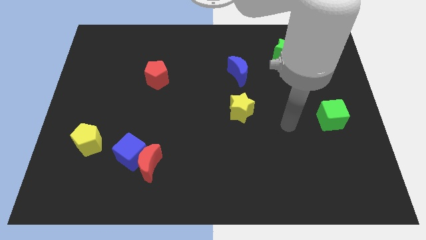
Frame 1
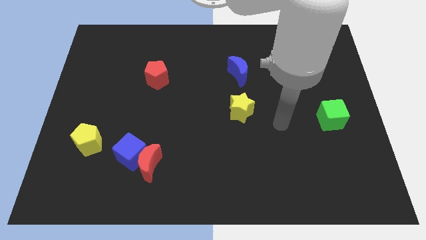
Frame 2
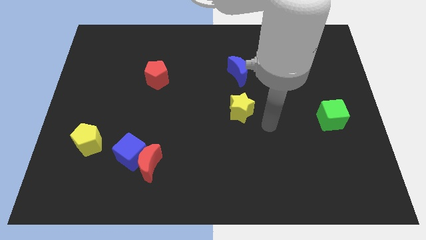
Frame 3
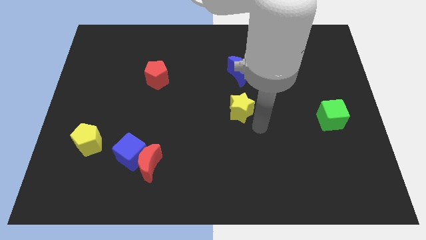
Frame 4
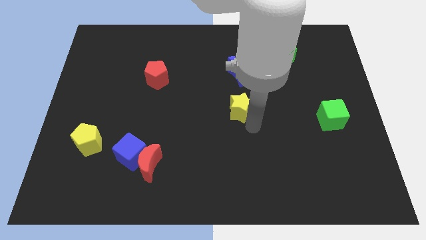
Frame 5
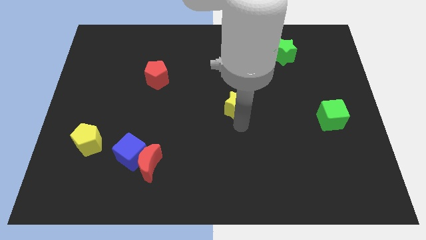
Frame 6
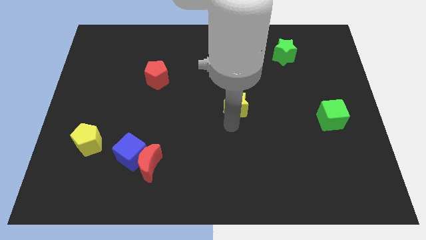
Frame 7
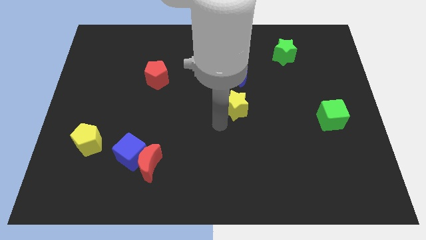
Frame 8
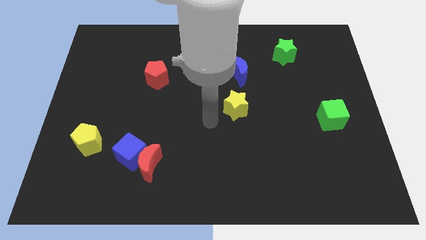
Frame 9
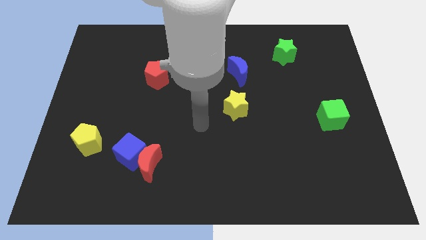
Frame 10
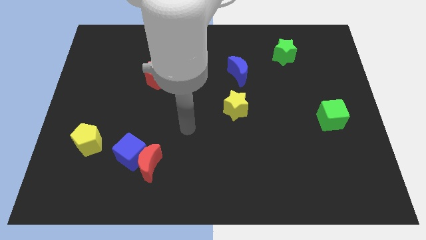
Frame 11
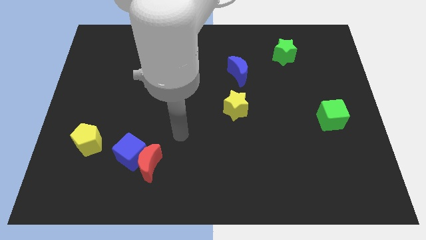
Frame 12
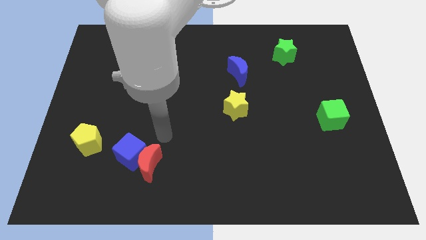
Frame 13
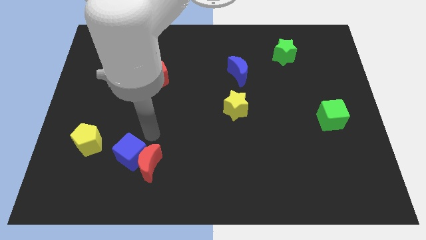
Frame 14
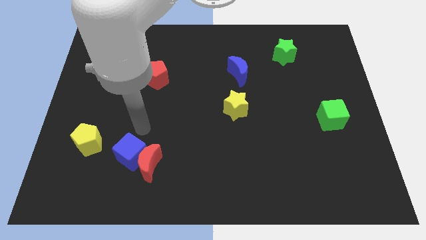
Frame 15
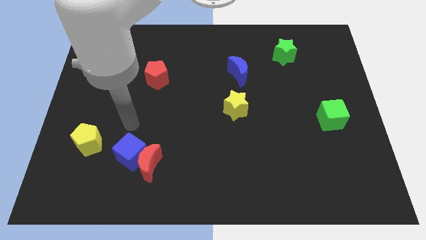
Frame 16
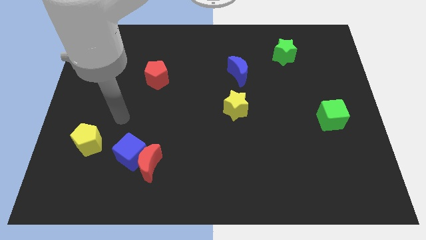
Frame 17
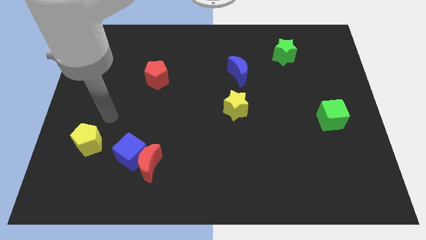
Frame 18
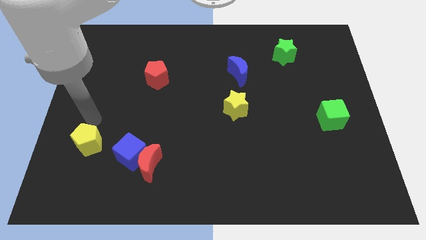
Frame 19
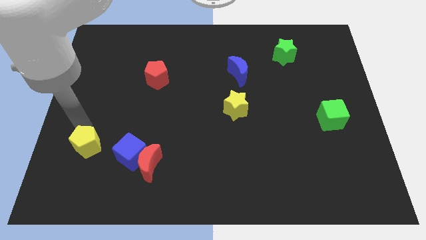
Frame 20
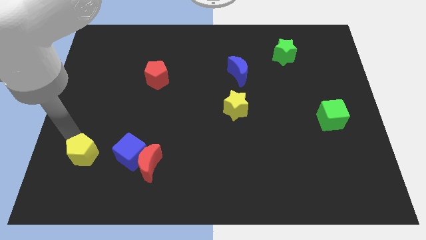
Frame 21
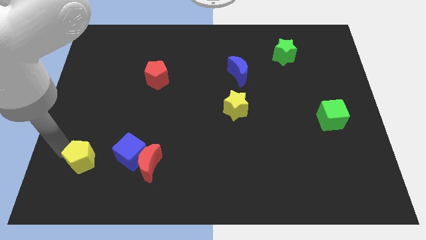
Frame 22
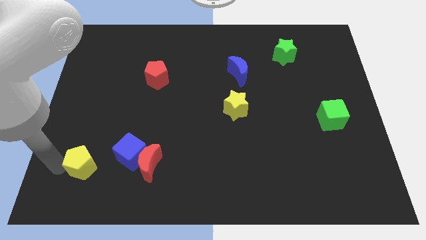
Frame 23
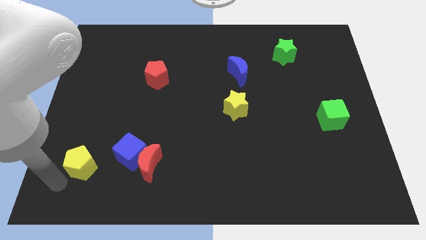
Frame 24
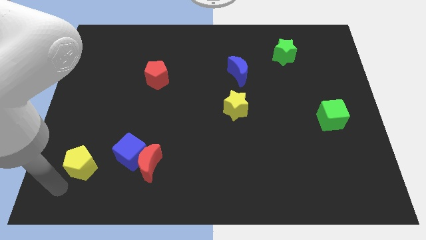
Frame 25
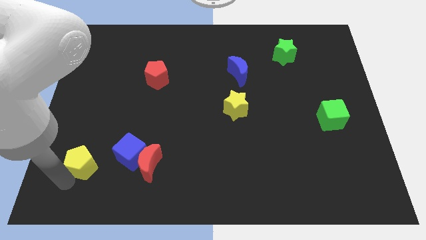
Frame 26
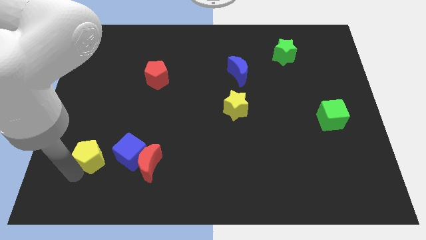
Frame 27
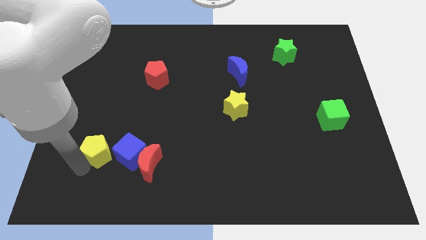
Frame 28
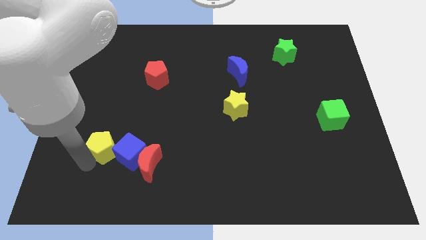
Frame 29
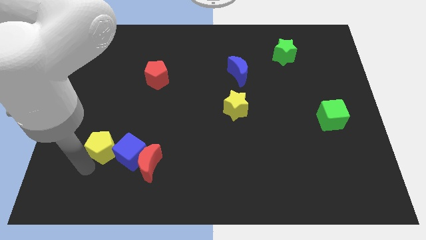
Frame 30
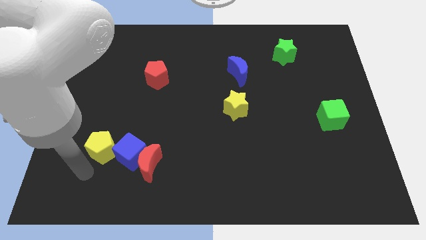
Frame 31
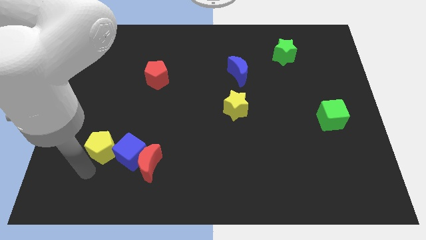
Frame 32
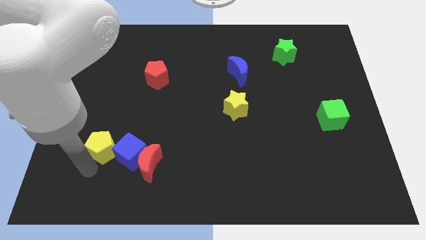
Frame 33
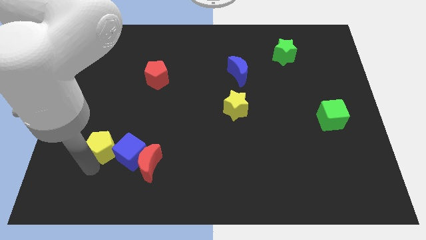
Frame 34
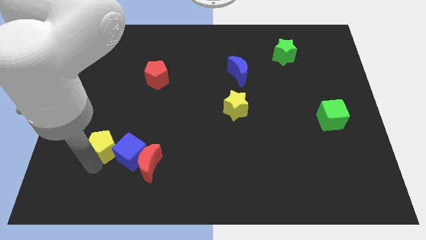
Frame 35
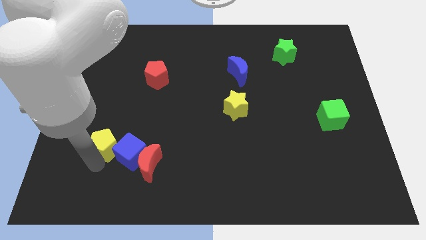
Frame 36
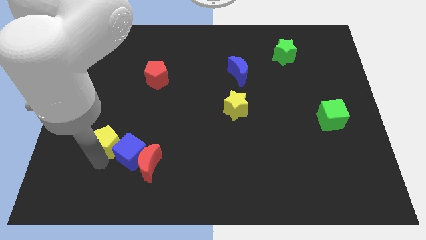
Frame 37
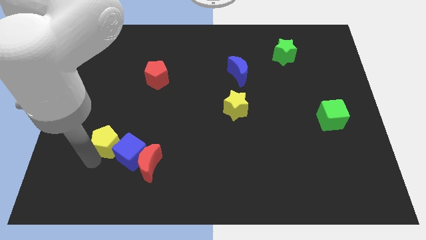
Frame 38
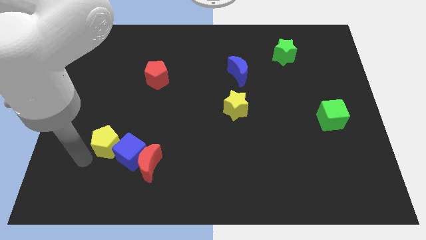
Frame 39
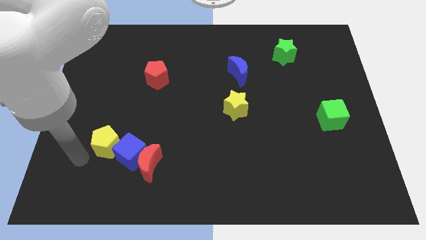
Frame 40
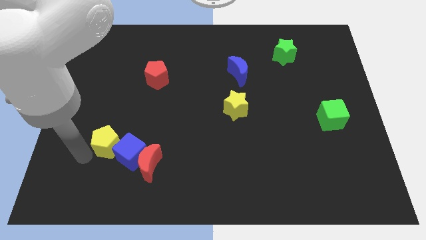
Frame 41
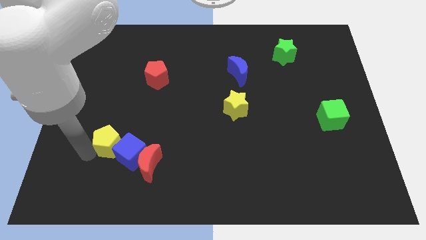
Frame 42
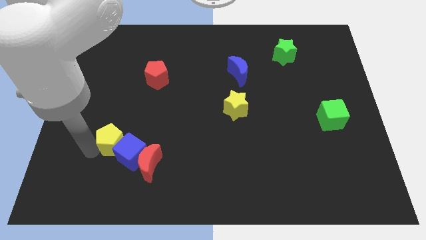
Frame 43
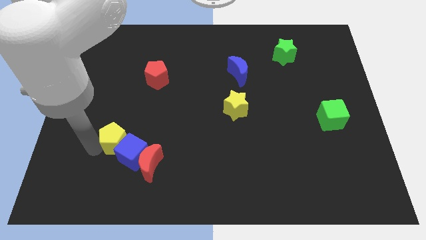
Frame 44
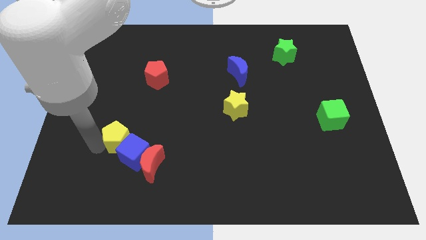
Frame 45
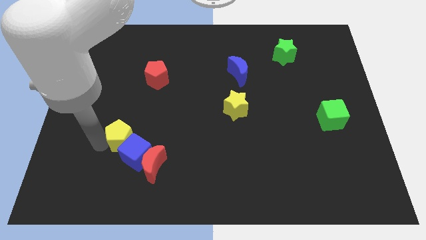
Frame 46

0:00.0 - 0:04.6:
slightly move the yellow pentagon right

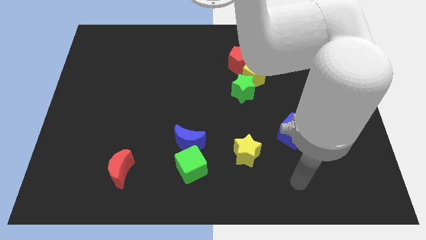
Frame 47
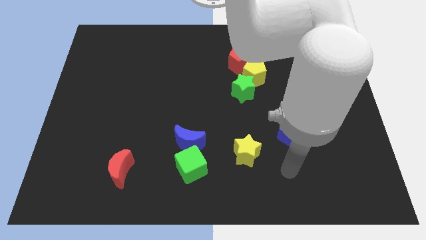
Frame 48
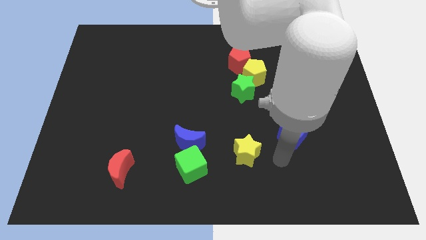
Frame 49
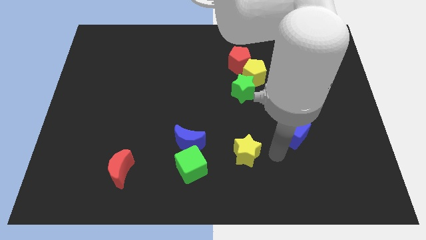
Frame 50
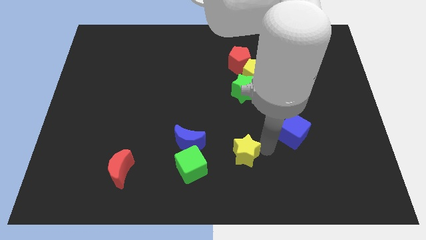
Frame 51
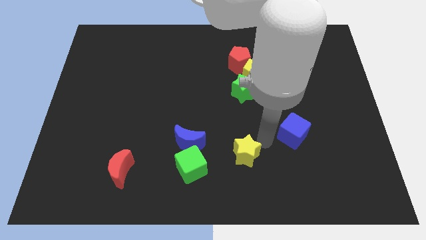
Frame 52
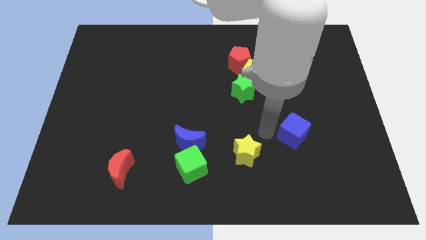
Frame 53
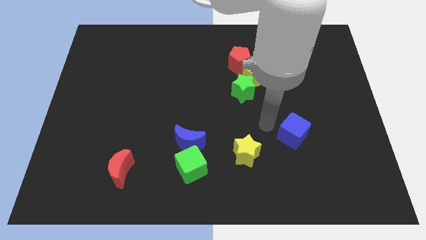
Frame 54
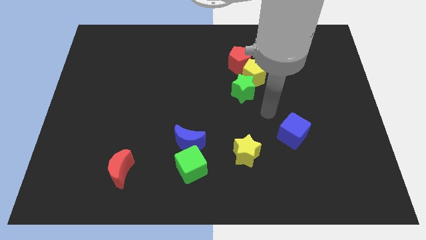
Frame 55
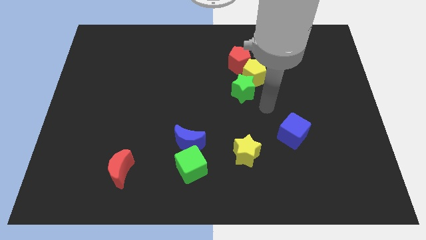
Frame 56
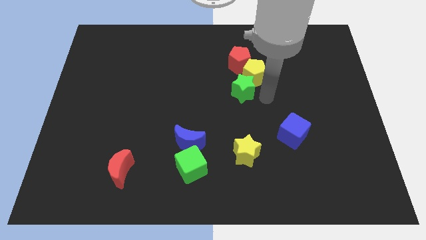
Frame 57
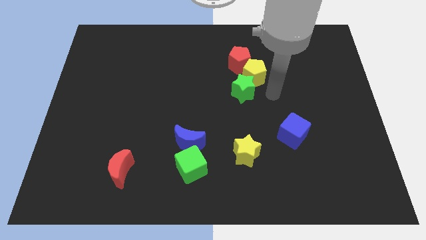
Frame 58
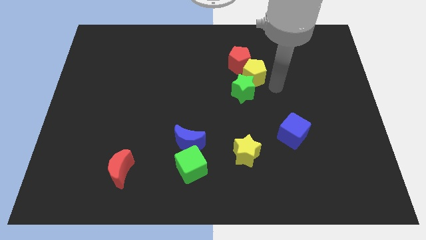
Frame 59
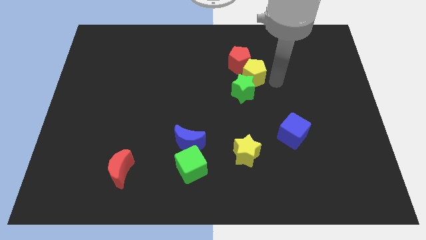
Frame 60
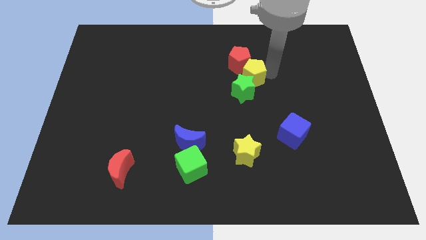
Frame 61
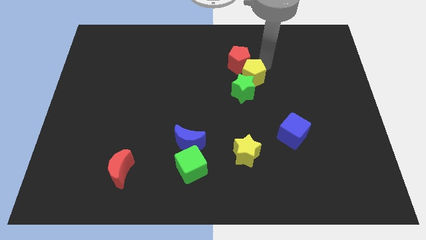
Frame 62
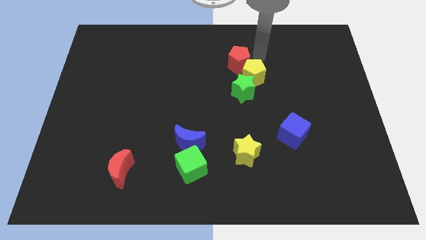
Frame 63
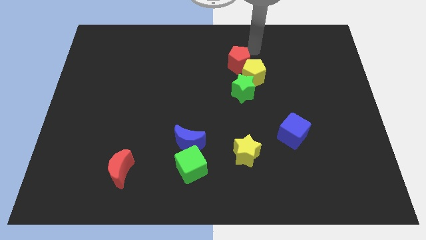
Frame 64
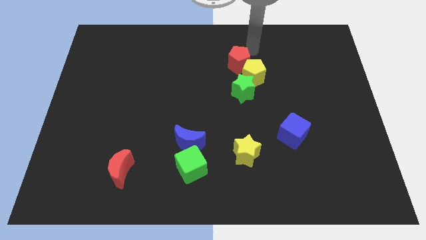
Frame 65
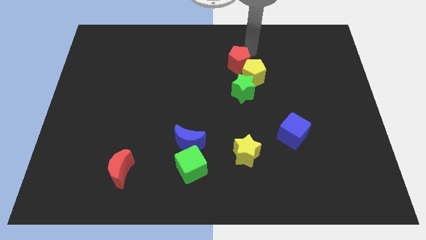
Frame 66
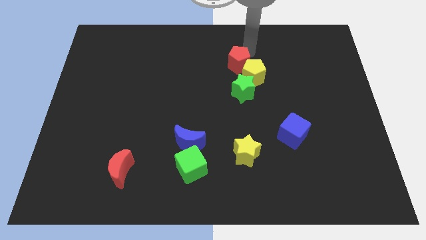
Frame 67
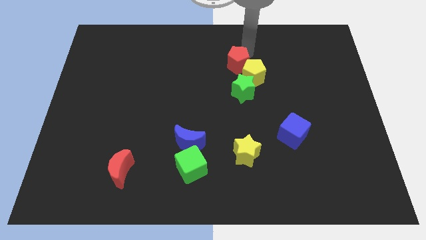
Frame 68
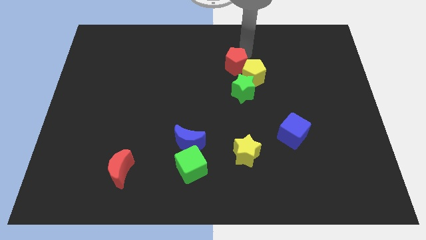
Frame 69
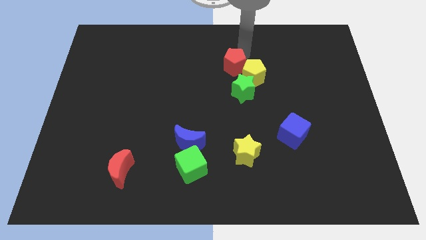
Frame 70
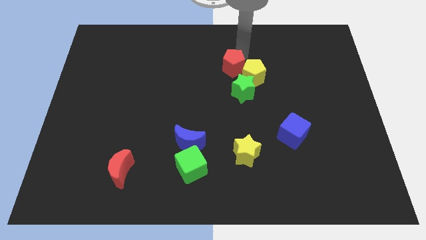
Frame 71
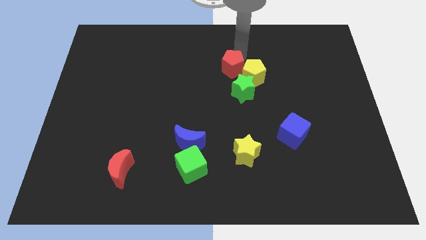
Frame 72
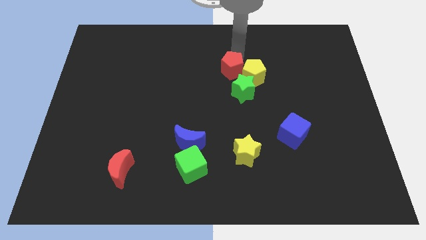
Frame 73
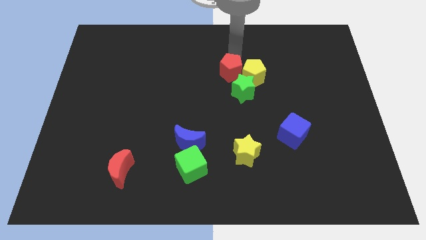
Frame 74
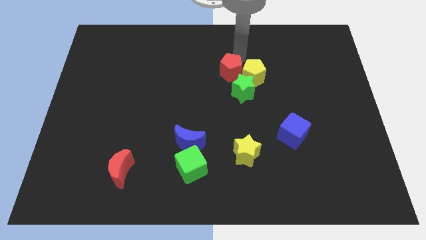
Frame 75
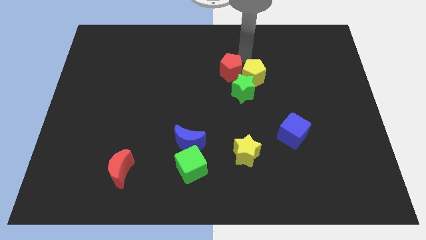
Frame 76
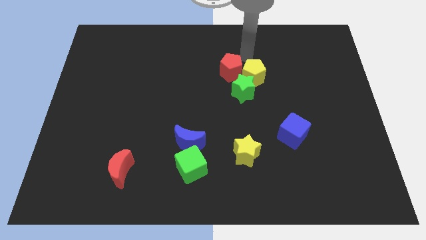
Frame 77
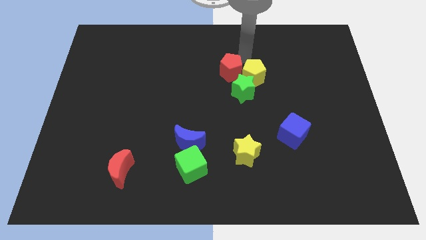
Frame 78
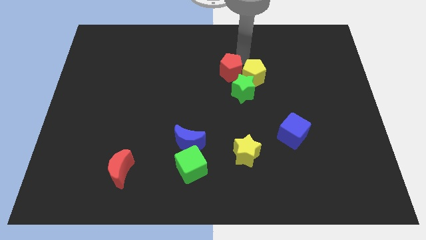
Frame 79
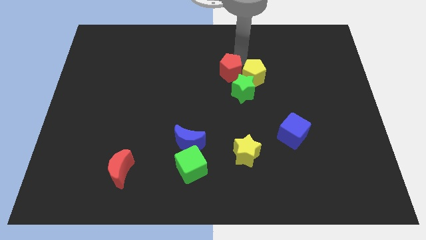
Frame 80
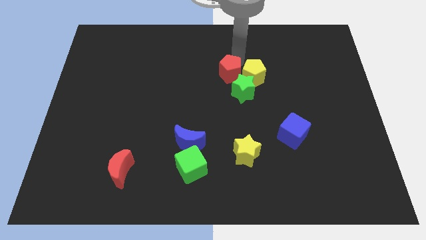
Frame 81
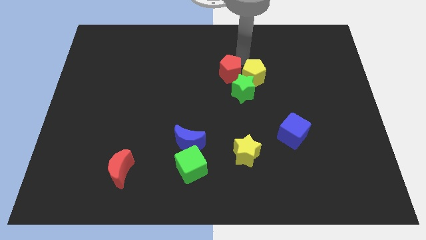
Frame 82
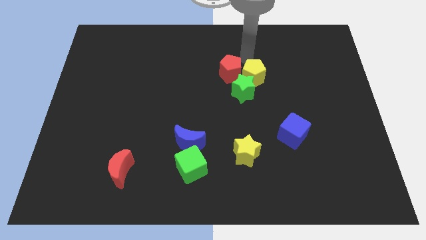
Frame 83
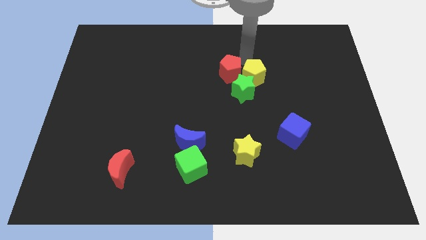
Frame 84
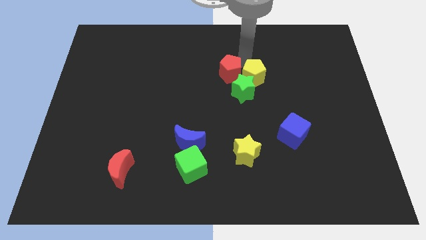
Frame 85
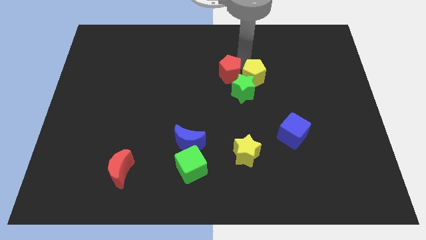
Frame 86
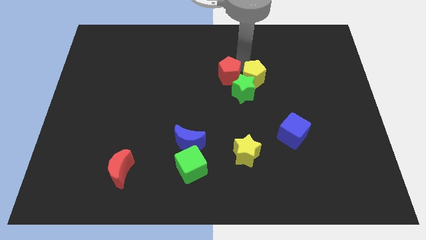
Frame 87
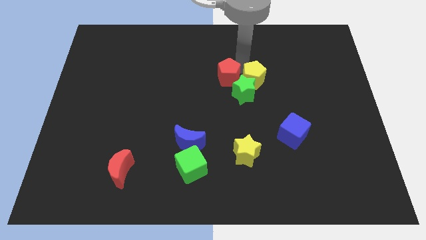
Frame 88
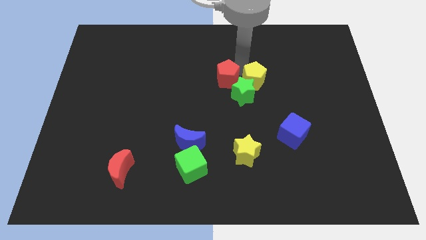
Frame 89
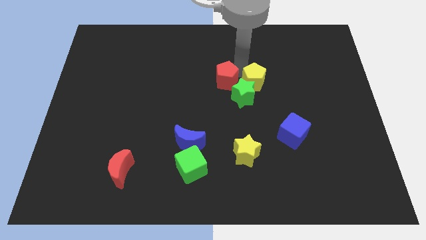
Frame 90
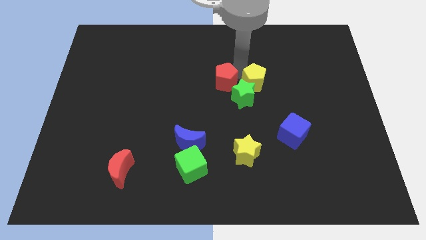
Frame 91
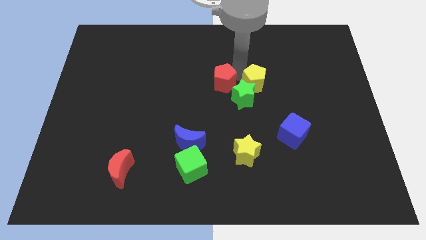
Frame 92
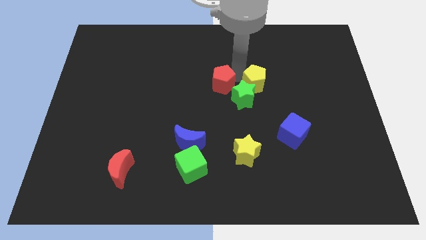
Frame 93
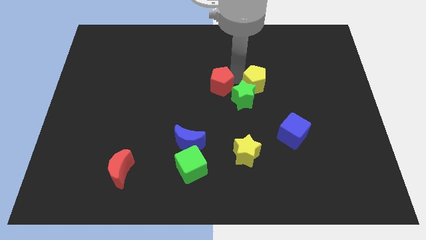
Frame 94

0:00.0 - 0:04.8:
slide the red pentagon down a little
